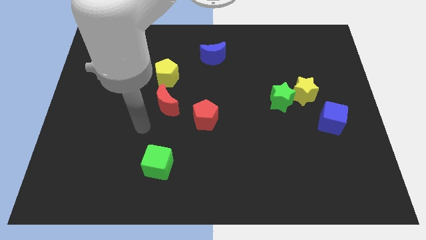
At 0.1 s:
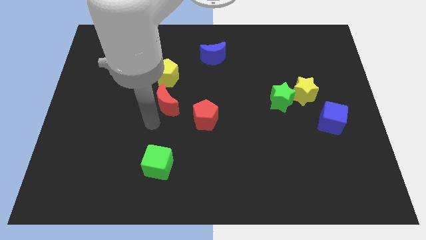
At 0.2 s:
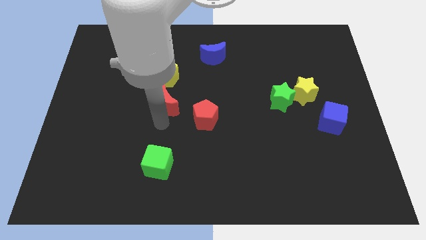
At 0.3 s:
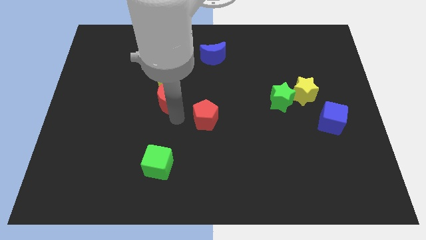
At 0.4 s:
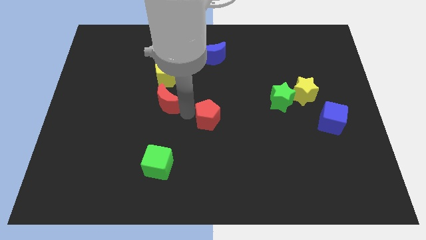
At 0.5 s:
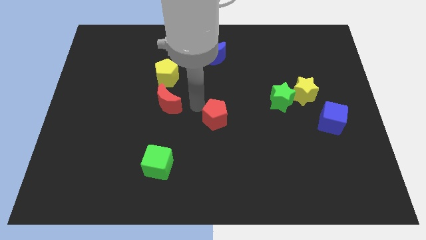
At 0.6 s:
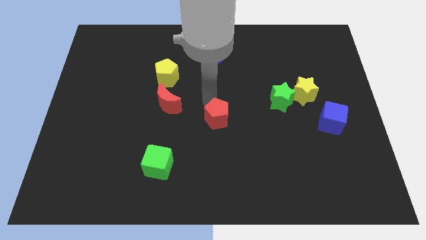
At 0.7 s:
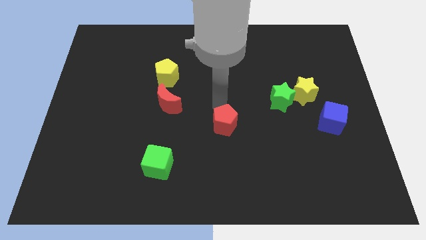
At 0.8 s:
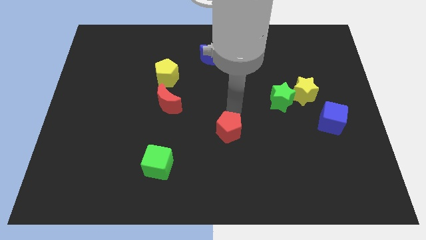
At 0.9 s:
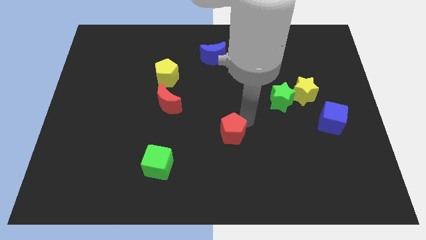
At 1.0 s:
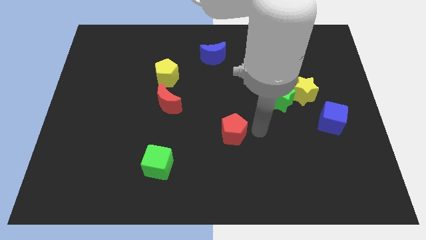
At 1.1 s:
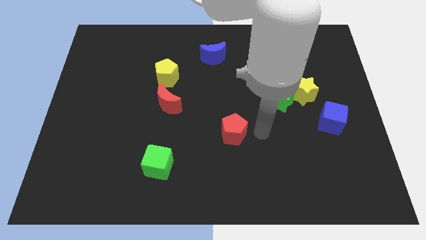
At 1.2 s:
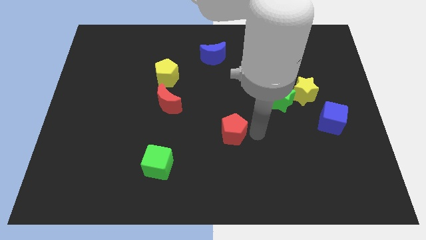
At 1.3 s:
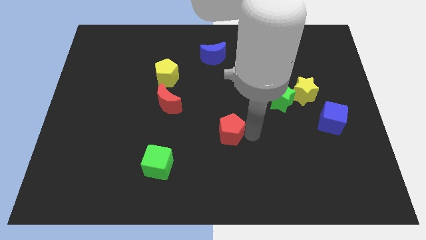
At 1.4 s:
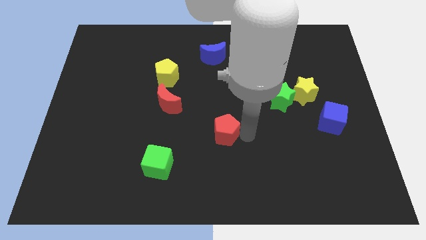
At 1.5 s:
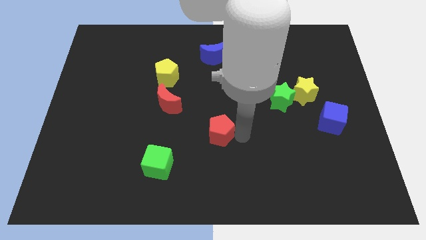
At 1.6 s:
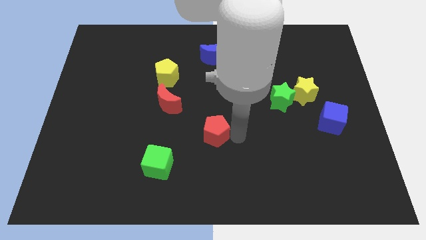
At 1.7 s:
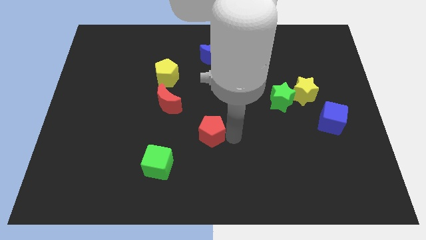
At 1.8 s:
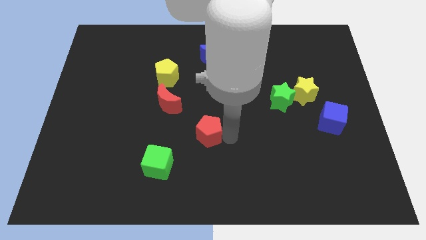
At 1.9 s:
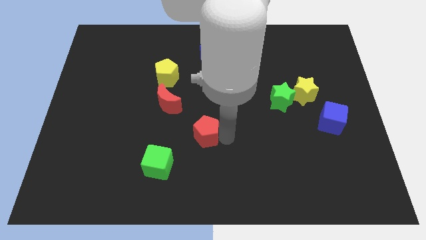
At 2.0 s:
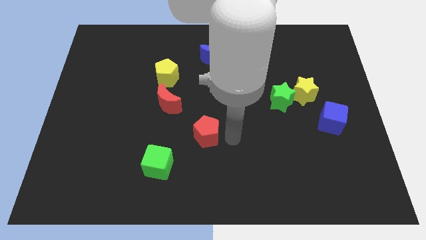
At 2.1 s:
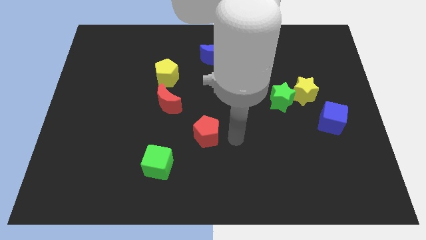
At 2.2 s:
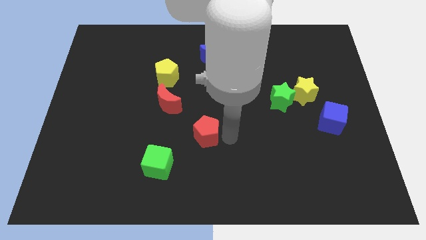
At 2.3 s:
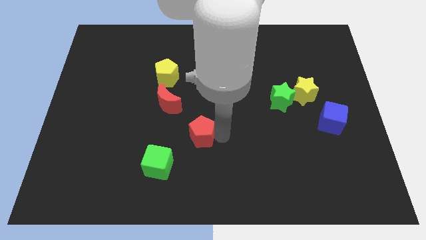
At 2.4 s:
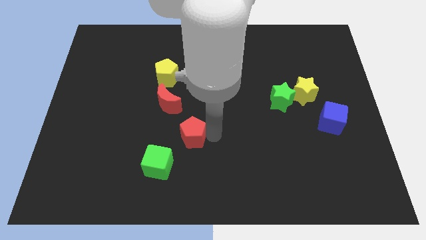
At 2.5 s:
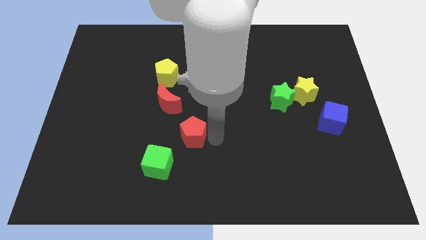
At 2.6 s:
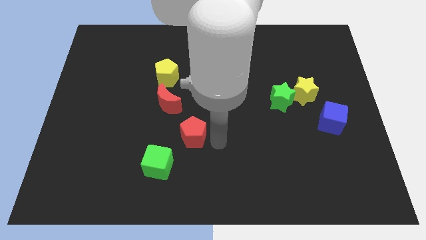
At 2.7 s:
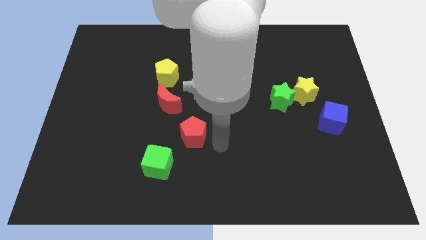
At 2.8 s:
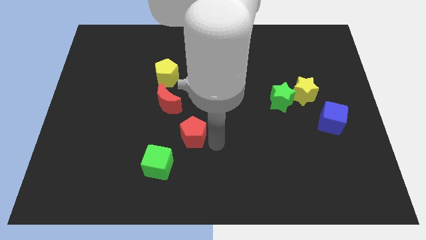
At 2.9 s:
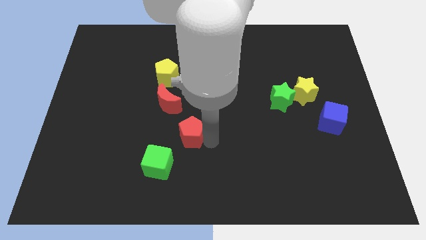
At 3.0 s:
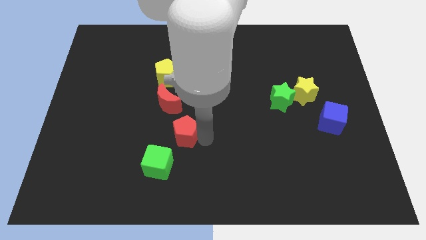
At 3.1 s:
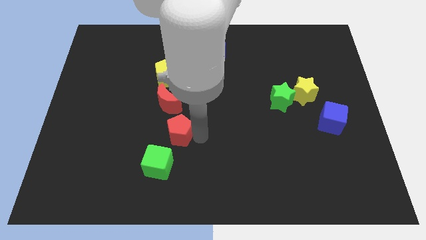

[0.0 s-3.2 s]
slide the red pentagon downwards and left diagonally a little bit

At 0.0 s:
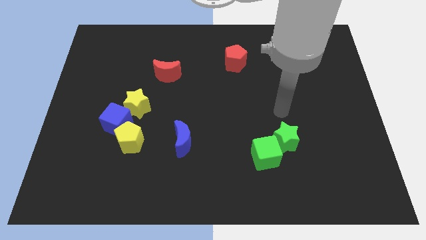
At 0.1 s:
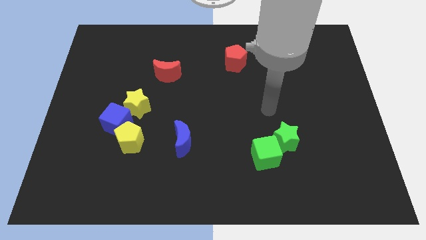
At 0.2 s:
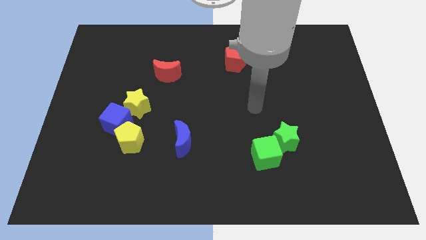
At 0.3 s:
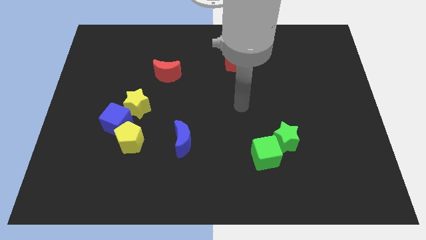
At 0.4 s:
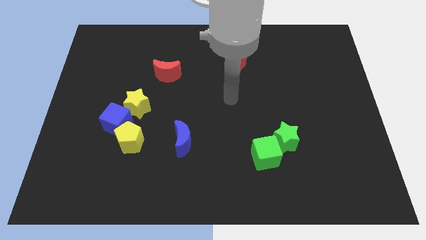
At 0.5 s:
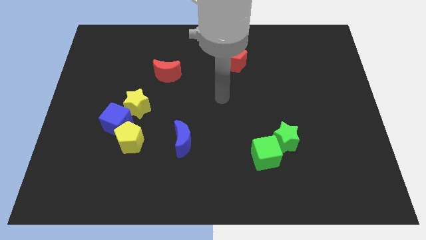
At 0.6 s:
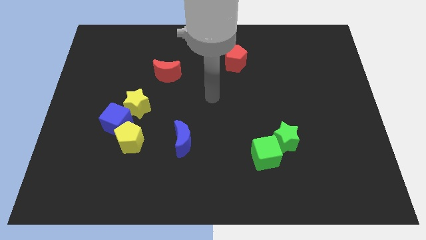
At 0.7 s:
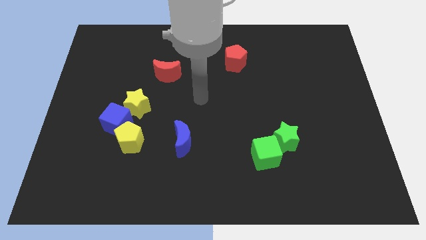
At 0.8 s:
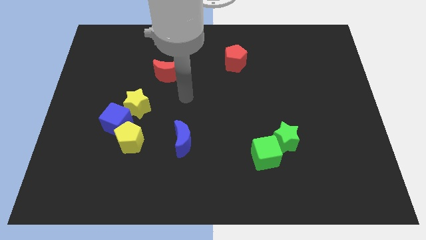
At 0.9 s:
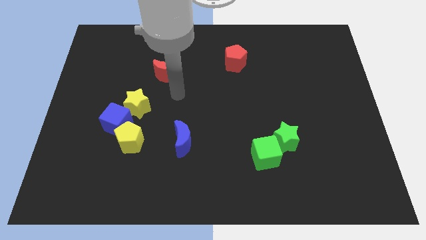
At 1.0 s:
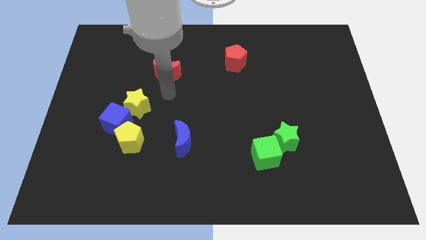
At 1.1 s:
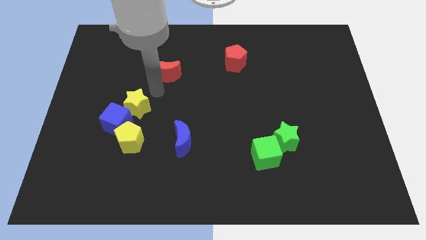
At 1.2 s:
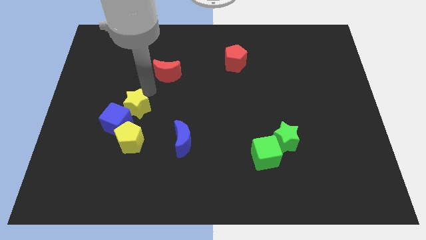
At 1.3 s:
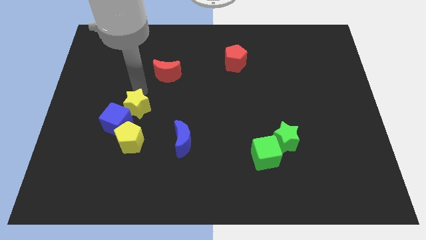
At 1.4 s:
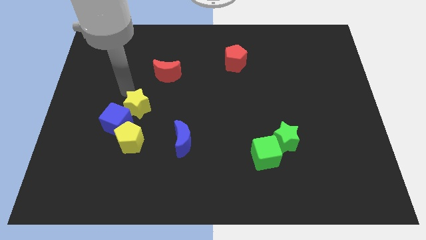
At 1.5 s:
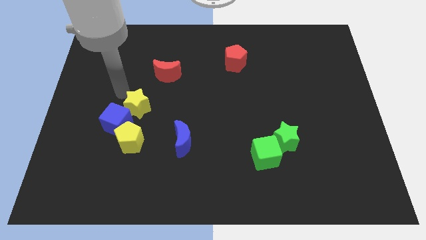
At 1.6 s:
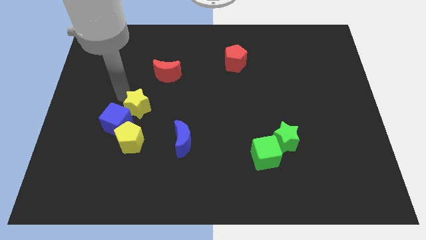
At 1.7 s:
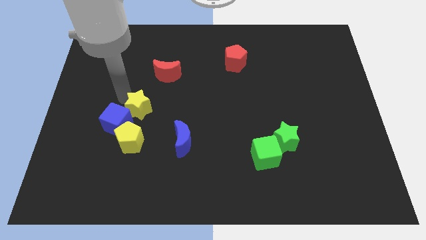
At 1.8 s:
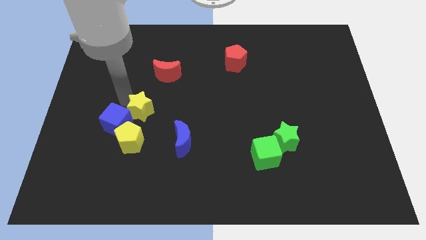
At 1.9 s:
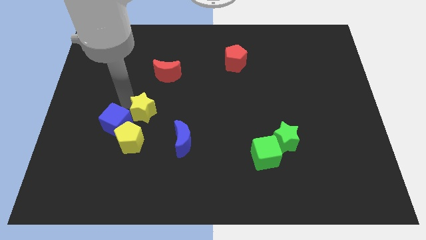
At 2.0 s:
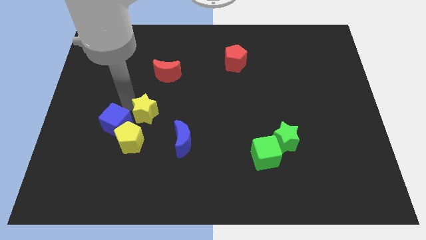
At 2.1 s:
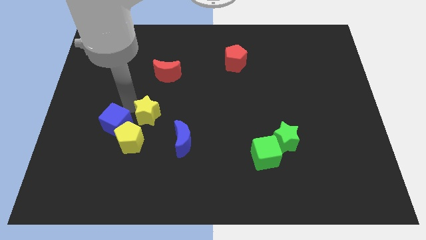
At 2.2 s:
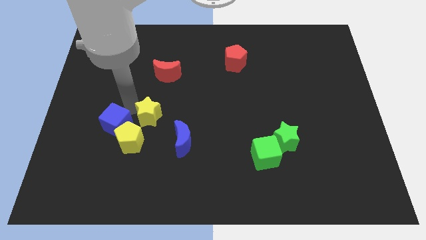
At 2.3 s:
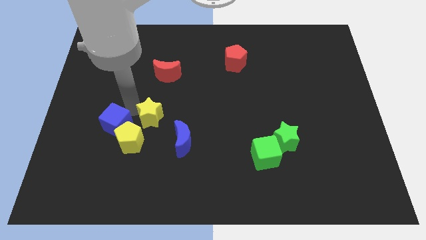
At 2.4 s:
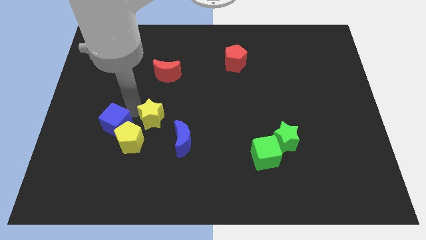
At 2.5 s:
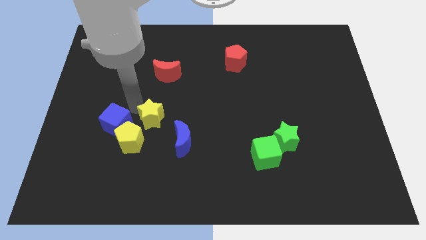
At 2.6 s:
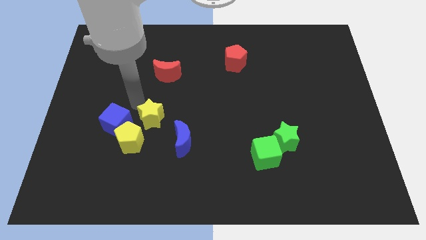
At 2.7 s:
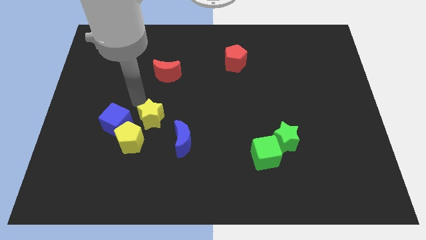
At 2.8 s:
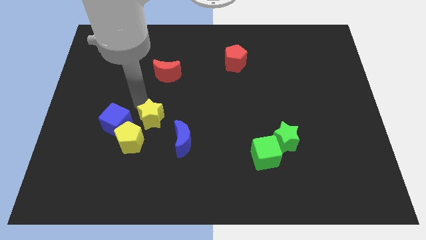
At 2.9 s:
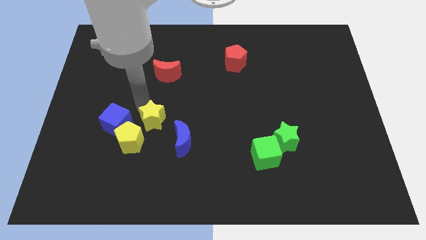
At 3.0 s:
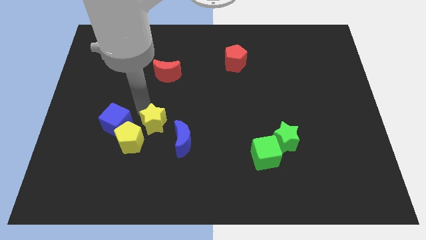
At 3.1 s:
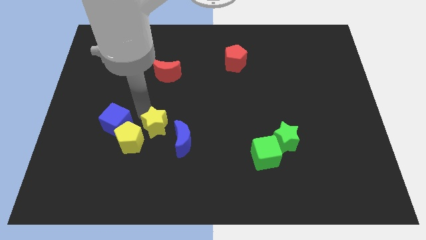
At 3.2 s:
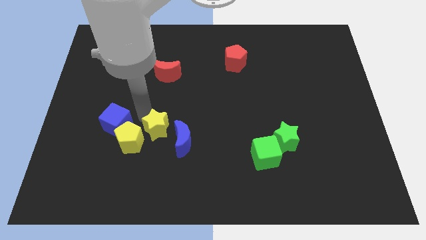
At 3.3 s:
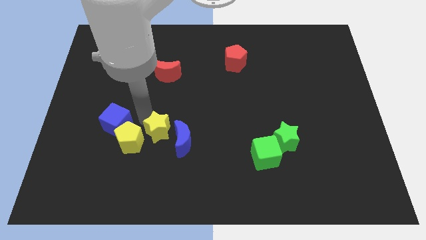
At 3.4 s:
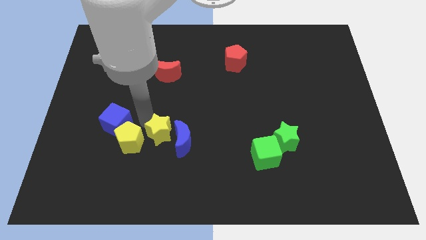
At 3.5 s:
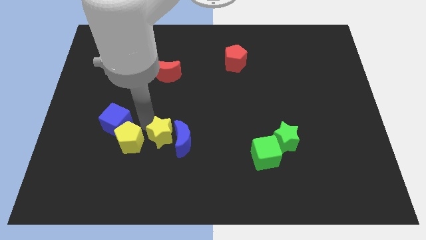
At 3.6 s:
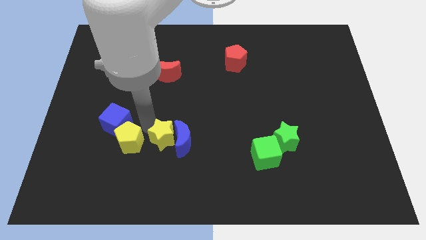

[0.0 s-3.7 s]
slightly push the yellow star downwards

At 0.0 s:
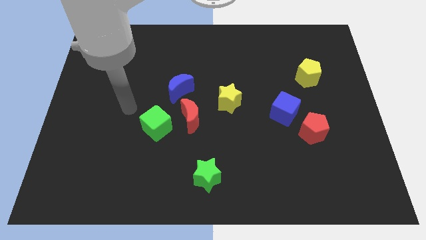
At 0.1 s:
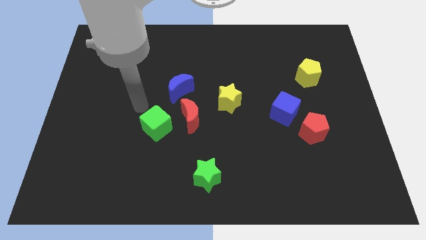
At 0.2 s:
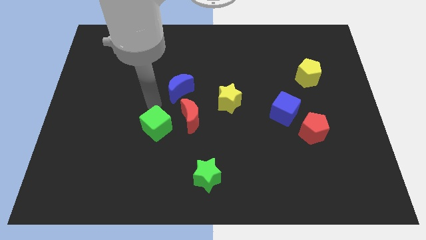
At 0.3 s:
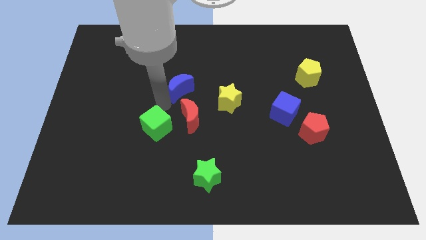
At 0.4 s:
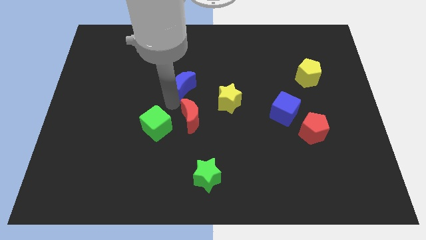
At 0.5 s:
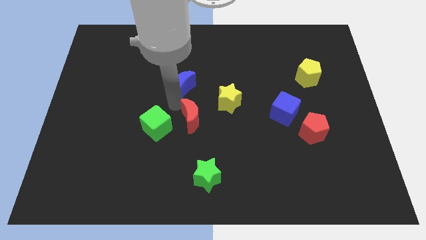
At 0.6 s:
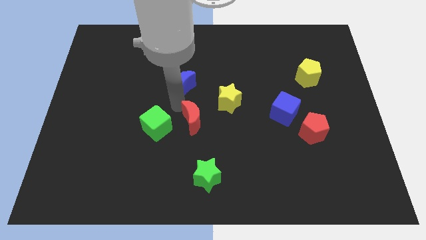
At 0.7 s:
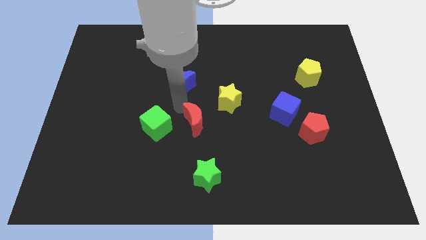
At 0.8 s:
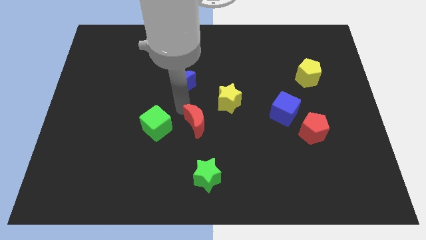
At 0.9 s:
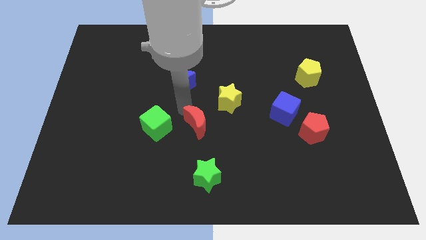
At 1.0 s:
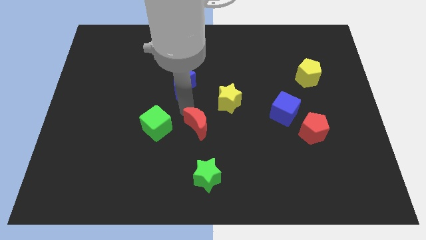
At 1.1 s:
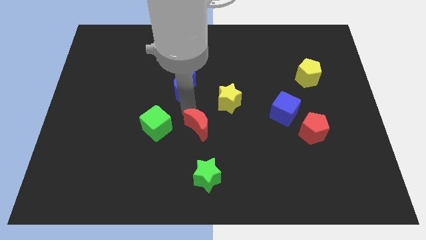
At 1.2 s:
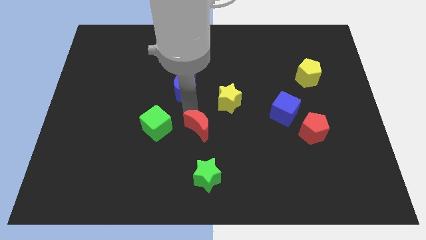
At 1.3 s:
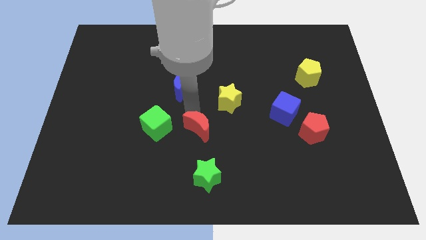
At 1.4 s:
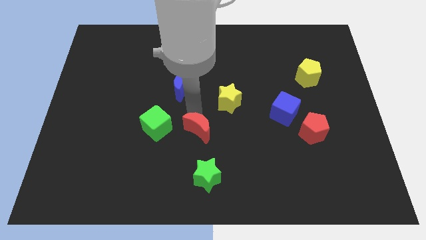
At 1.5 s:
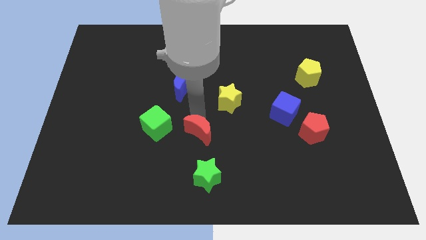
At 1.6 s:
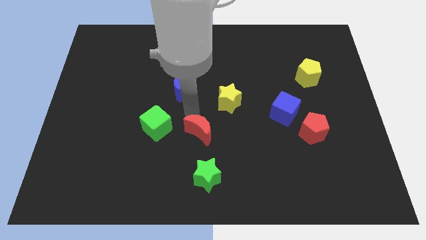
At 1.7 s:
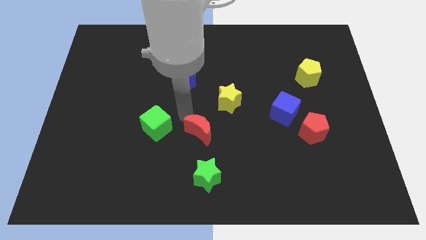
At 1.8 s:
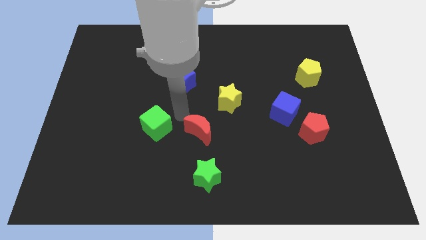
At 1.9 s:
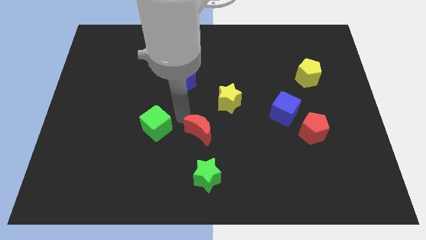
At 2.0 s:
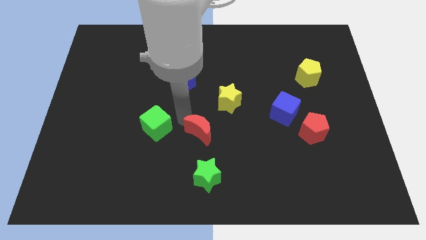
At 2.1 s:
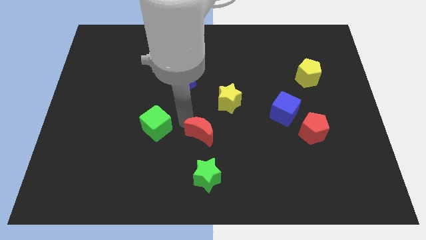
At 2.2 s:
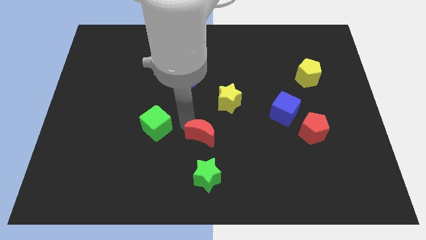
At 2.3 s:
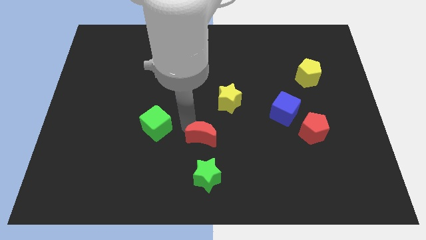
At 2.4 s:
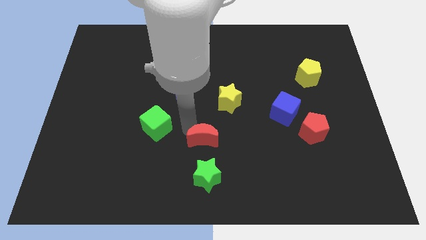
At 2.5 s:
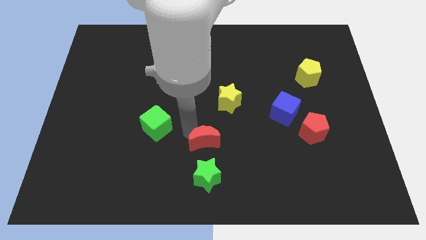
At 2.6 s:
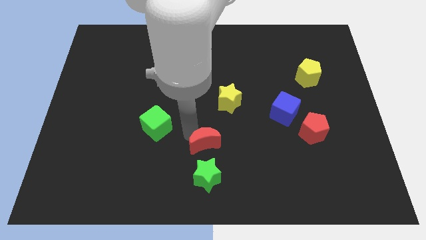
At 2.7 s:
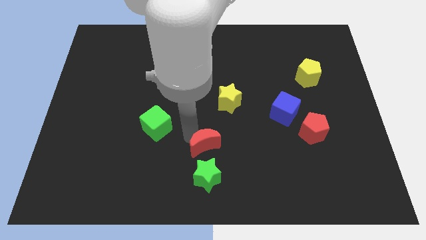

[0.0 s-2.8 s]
push the red moon down and then right a bit
